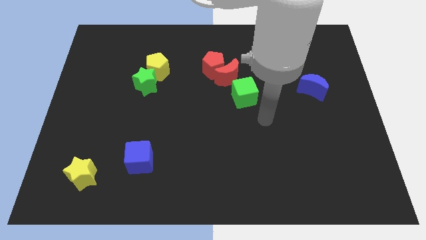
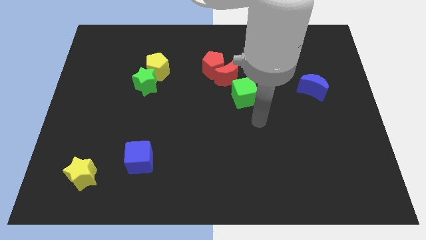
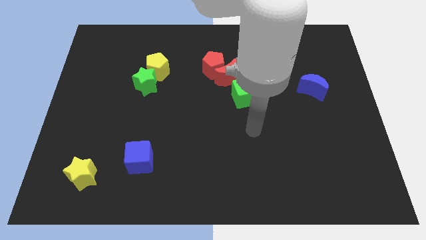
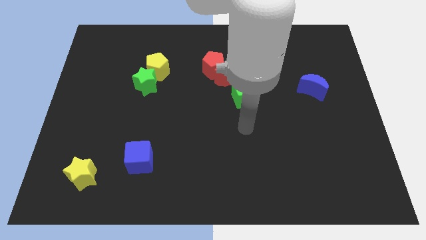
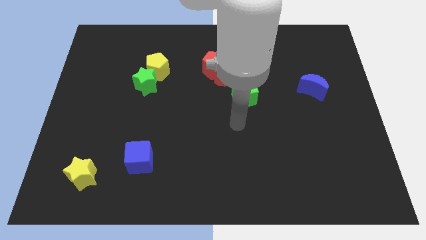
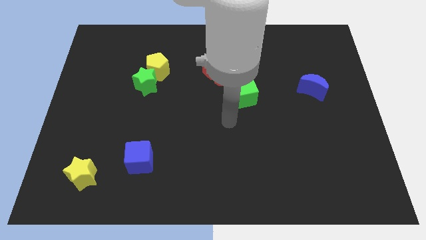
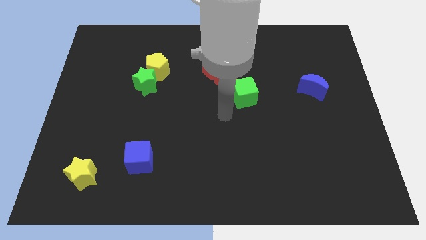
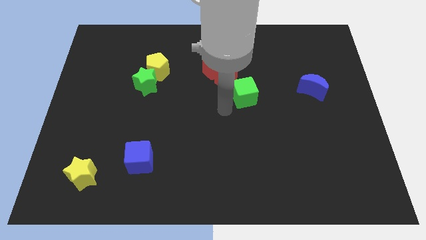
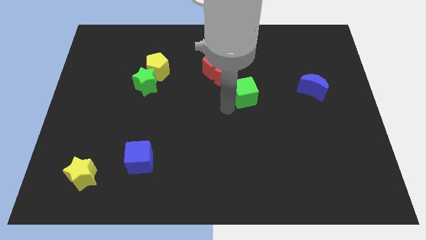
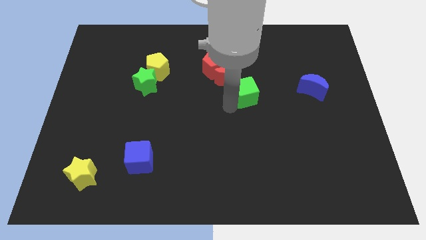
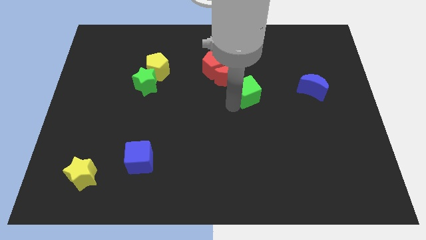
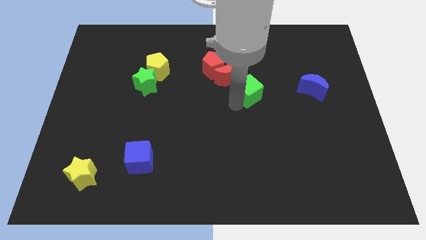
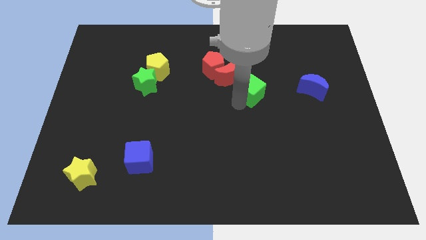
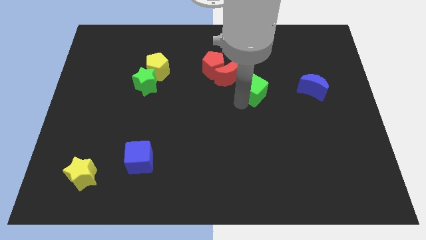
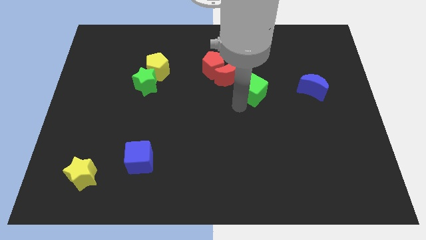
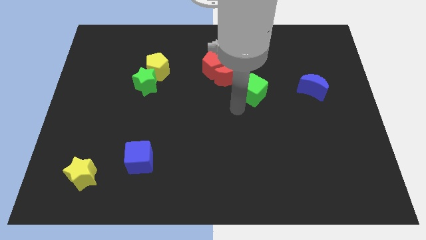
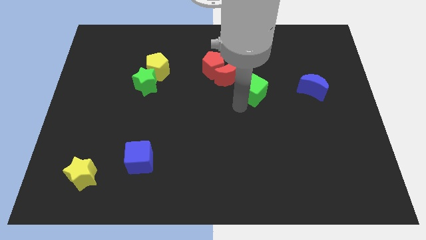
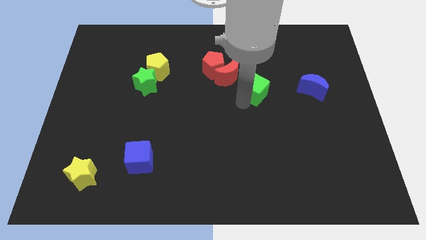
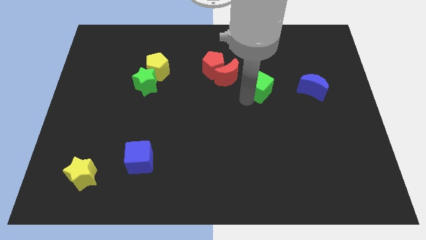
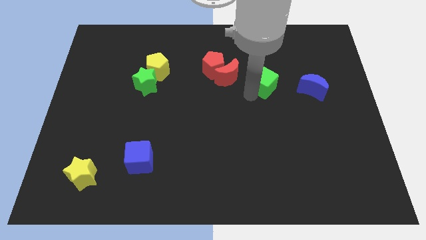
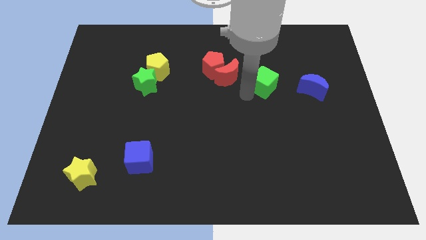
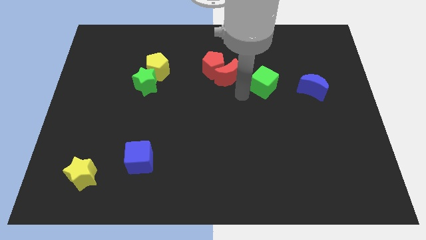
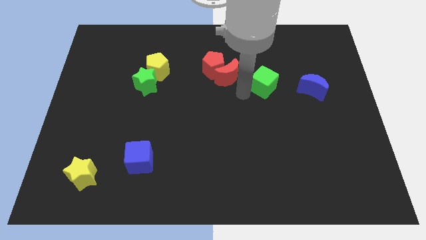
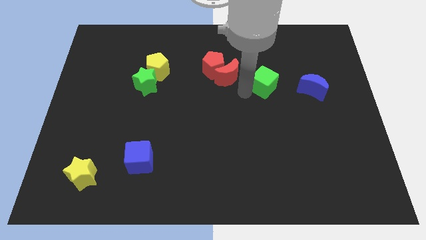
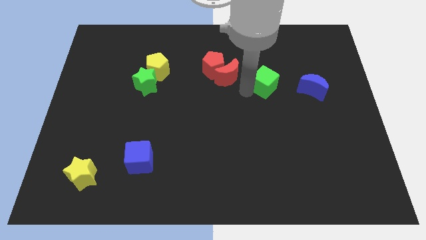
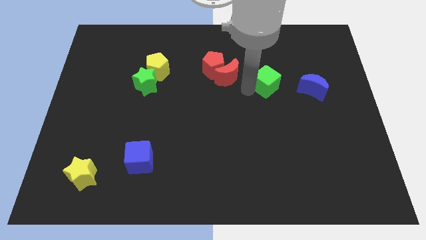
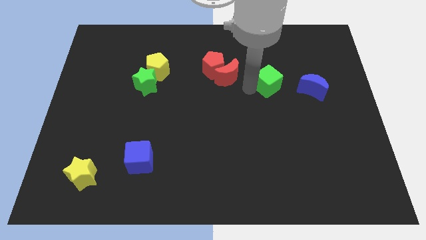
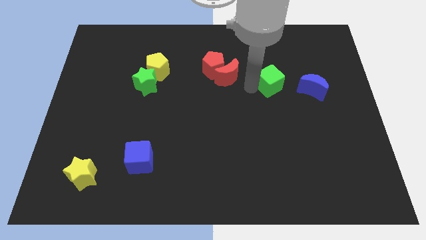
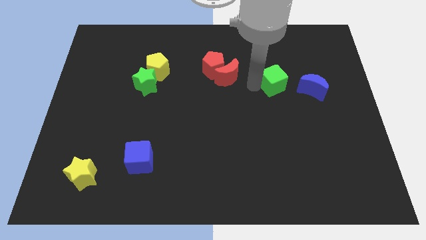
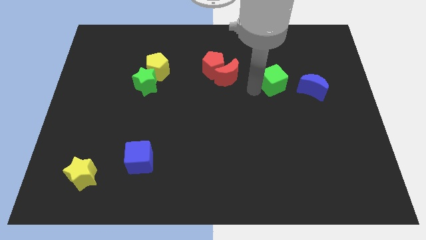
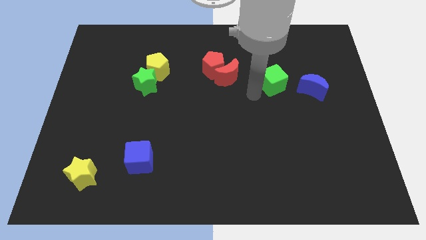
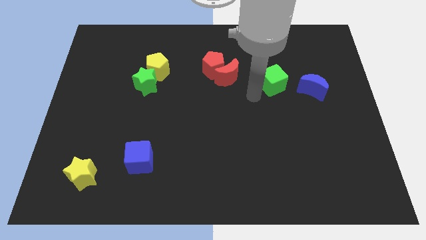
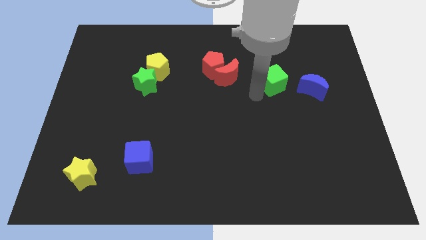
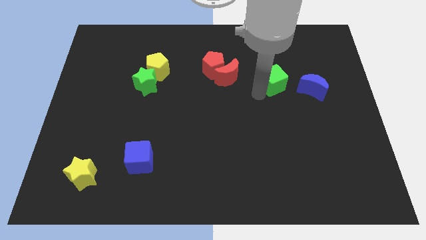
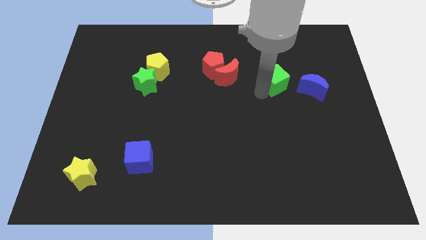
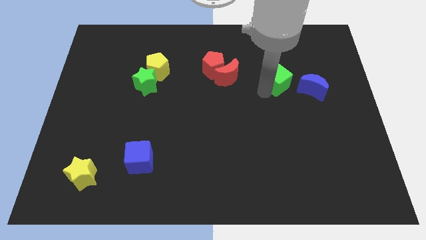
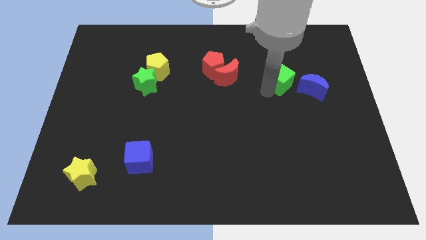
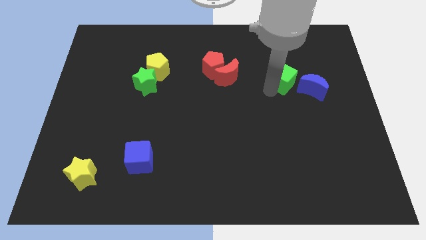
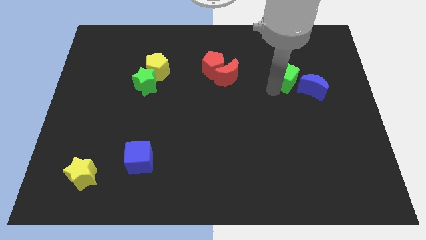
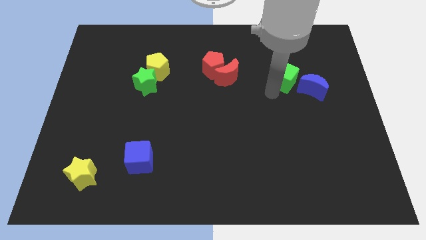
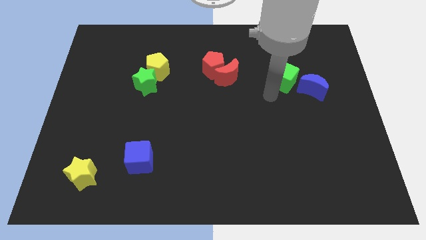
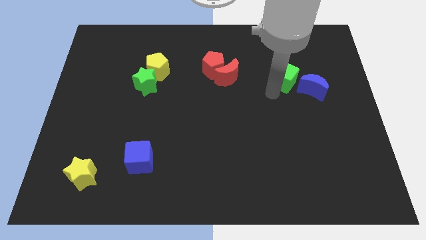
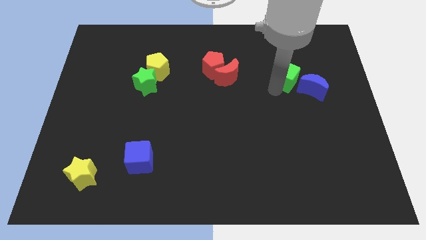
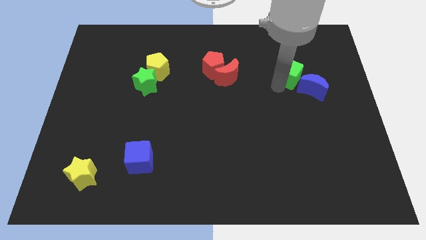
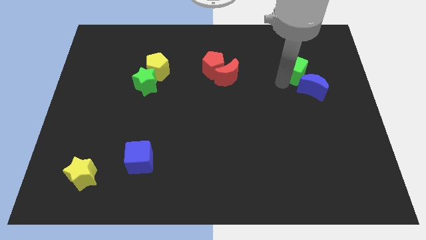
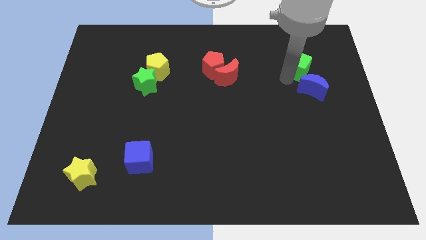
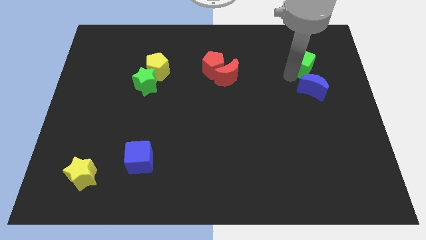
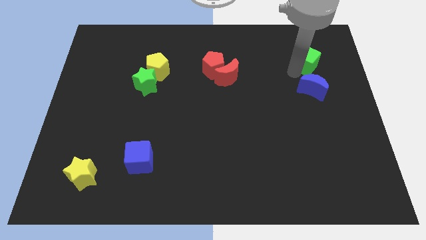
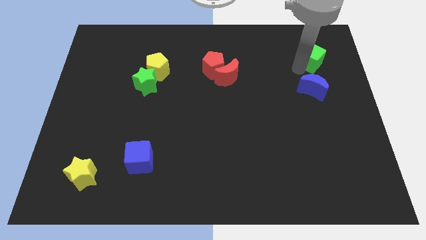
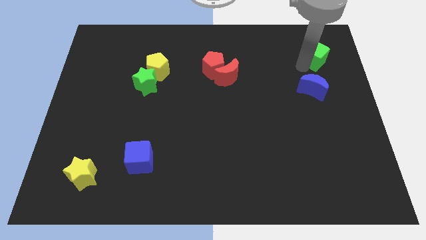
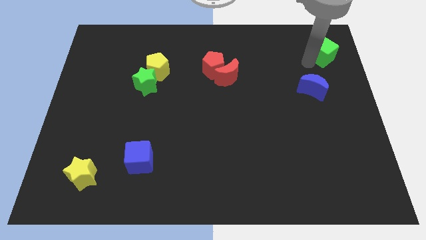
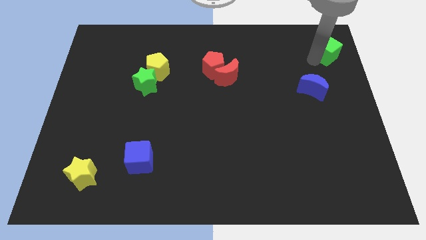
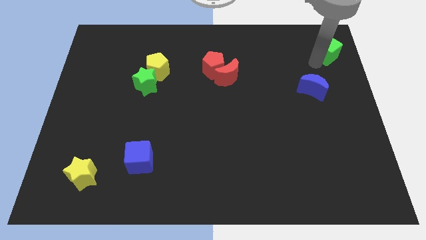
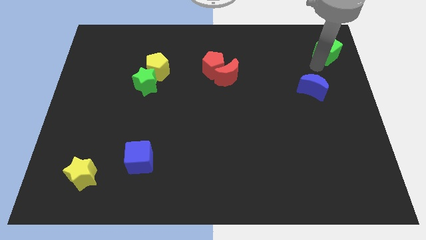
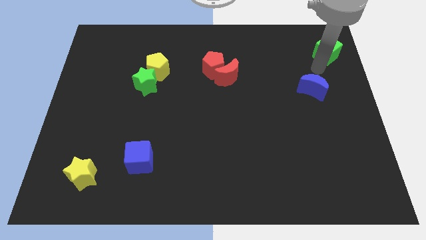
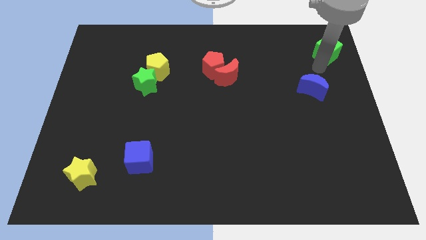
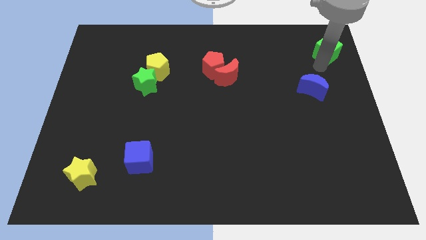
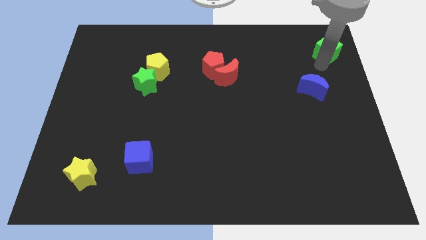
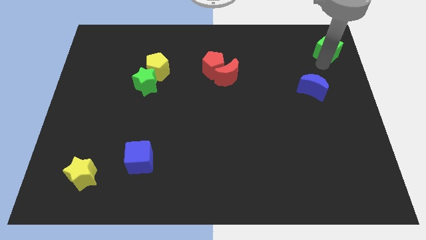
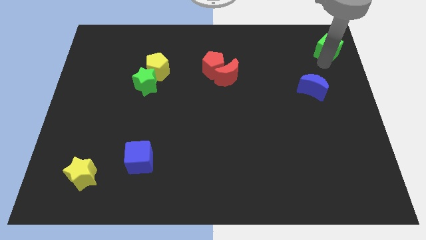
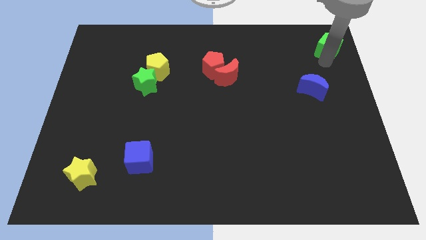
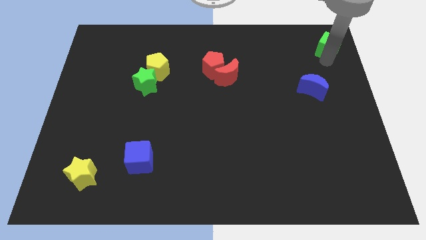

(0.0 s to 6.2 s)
push the green cube to the top right corner

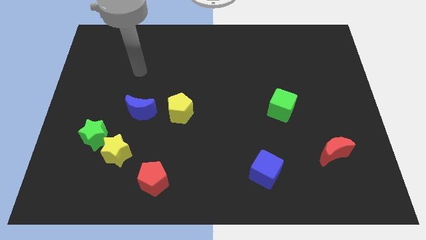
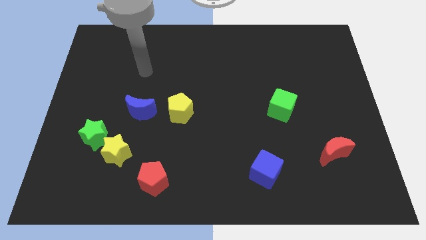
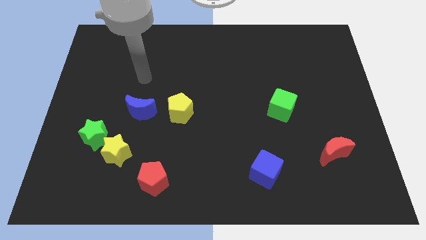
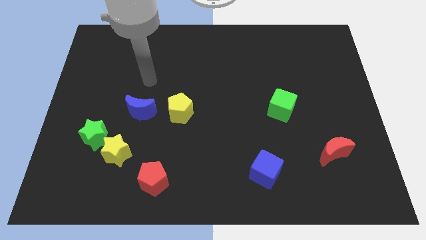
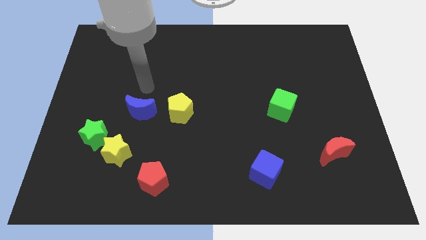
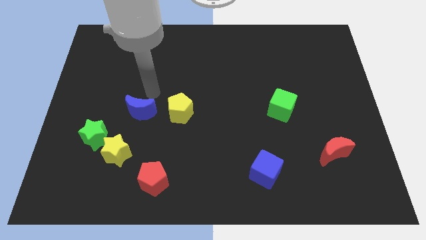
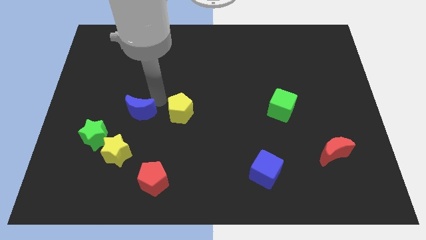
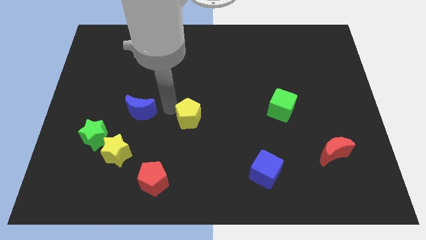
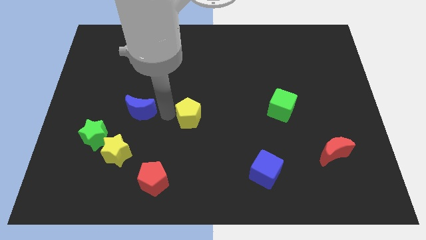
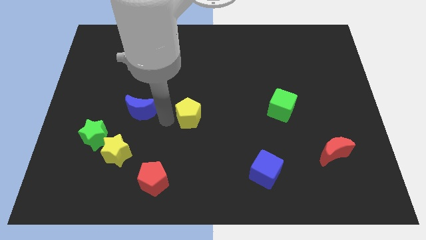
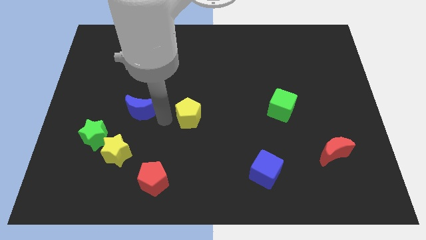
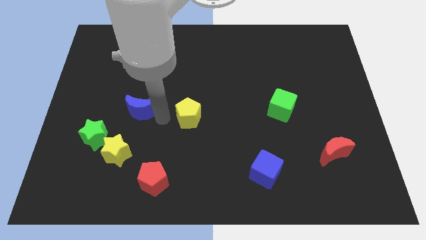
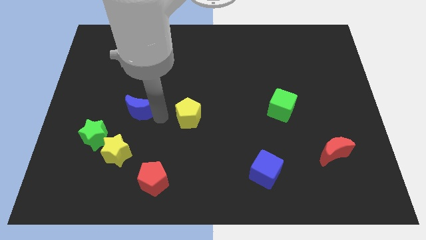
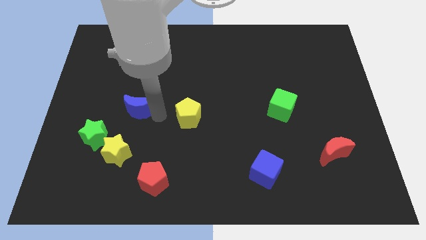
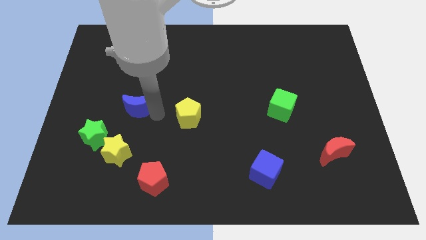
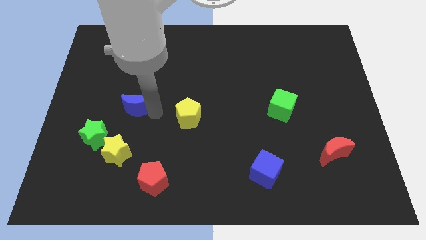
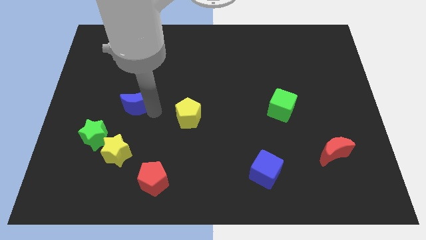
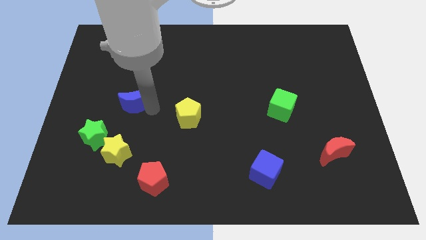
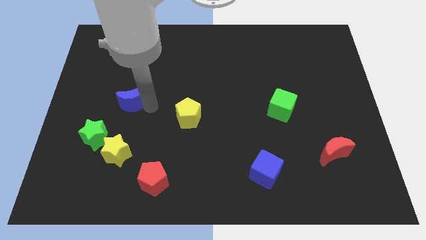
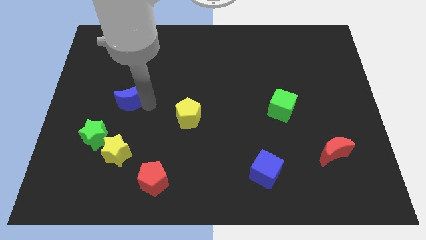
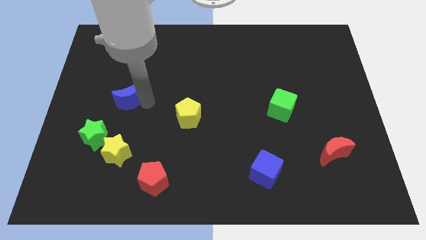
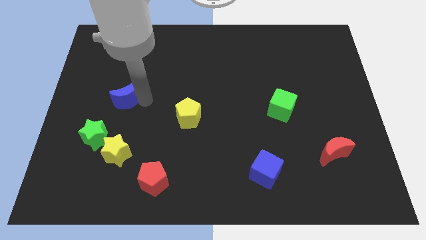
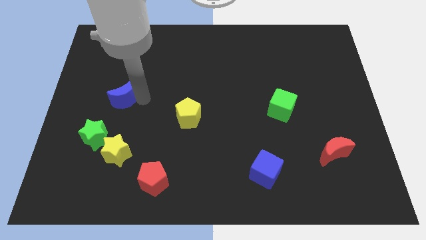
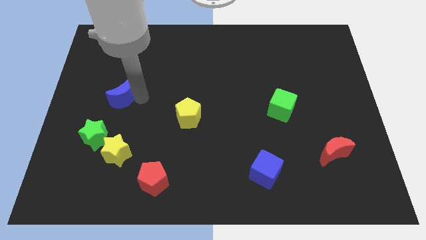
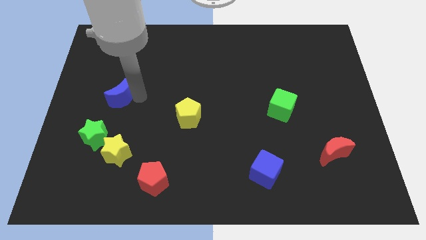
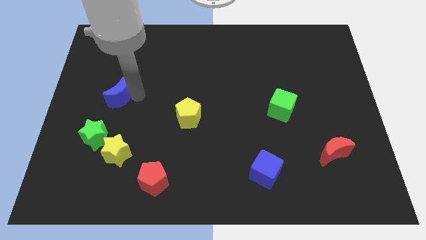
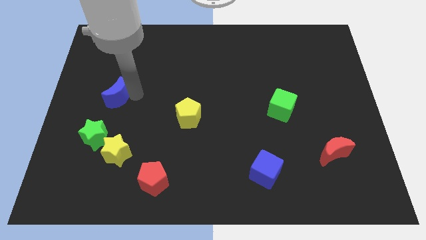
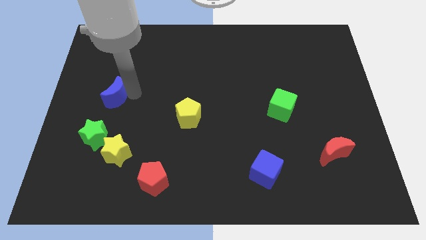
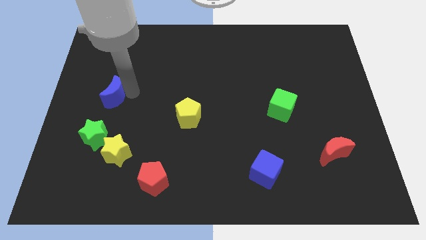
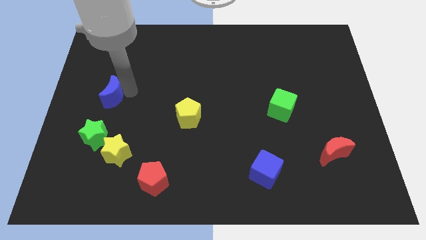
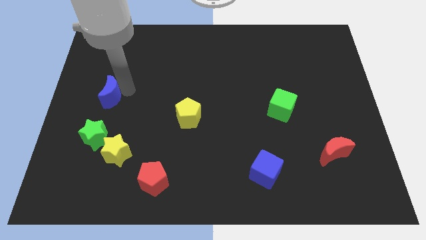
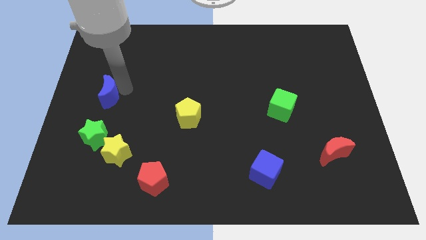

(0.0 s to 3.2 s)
move the blue moon to the center left
